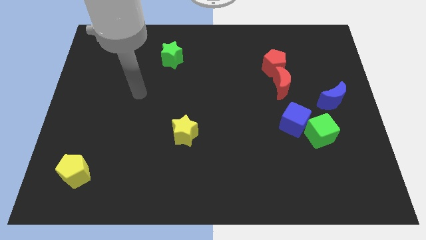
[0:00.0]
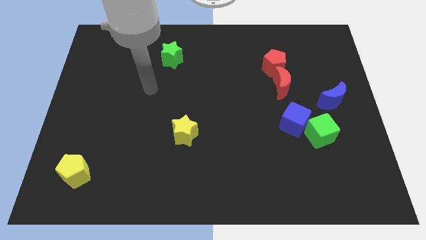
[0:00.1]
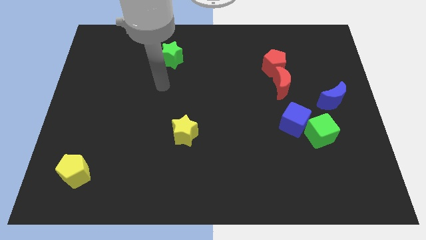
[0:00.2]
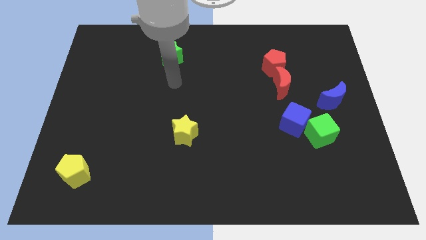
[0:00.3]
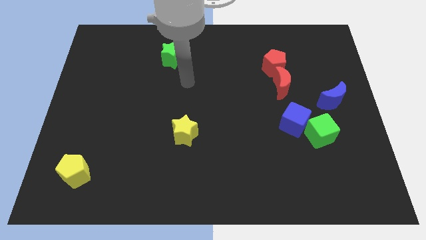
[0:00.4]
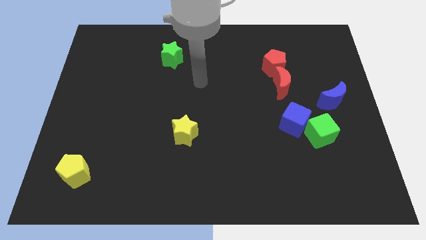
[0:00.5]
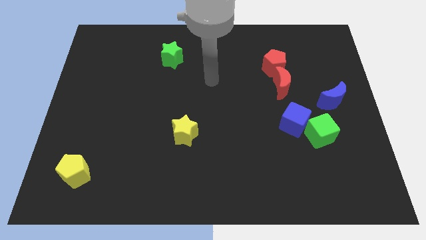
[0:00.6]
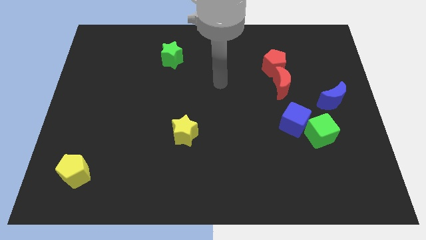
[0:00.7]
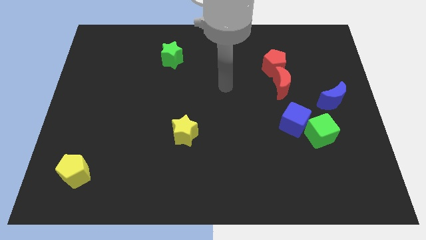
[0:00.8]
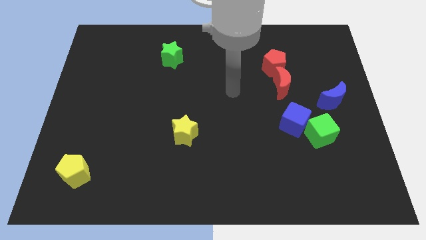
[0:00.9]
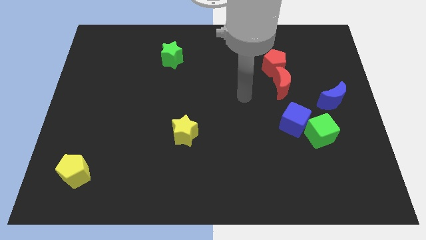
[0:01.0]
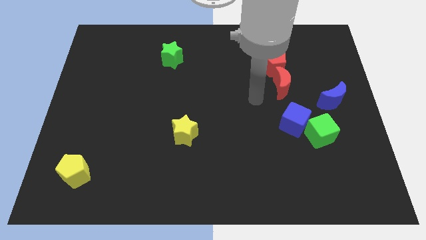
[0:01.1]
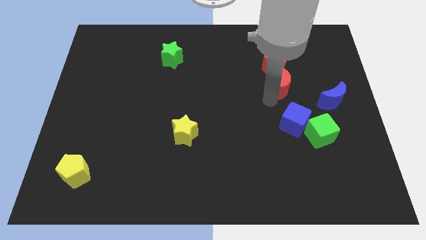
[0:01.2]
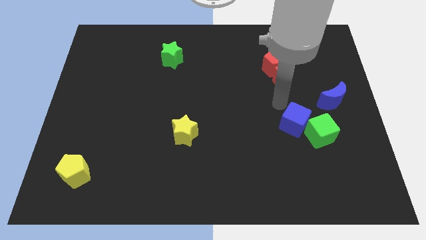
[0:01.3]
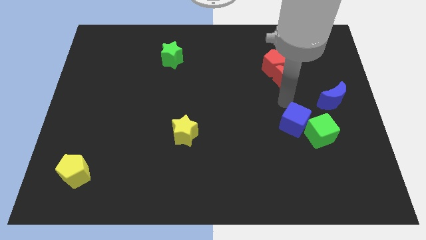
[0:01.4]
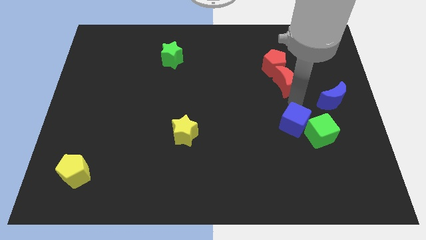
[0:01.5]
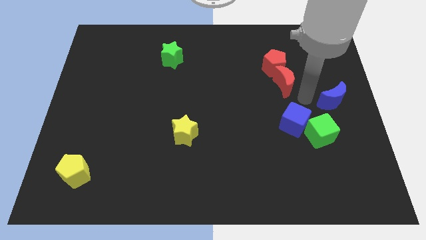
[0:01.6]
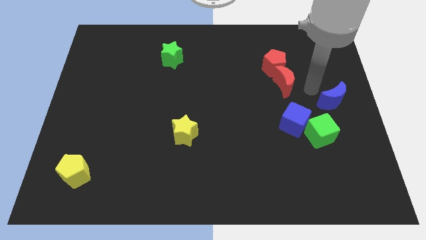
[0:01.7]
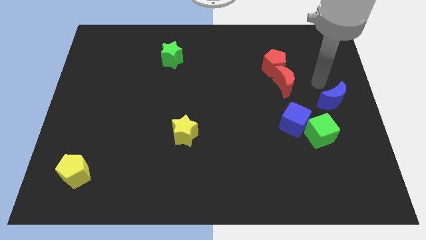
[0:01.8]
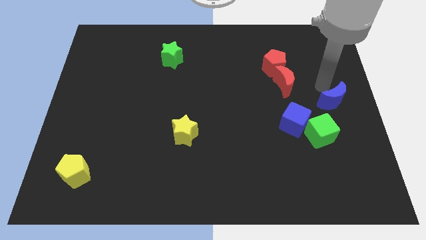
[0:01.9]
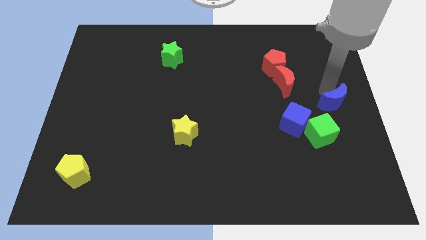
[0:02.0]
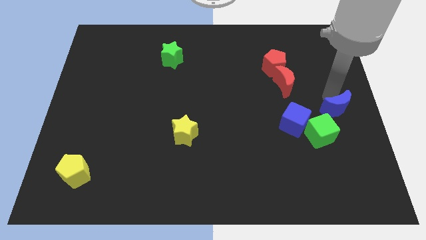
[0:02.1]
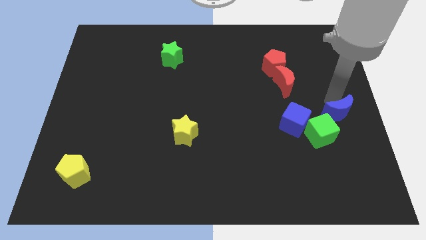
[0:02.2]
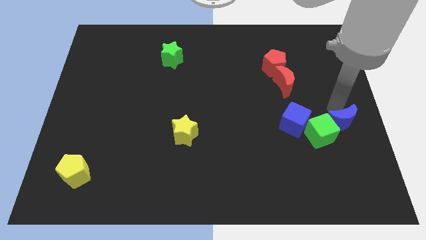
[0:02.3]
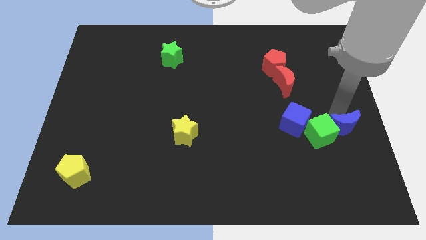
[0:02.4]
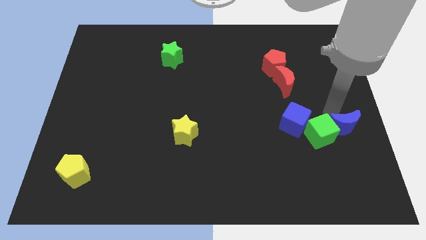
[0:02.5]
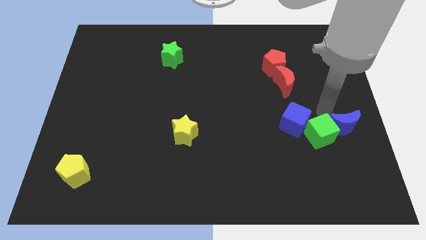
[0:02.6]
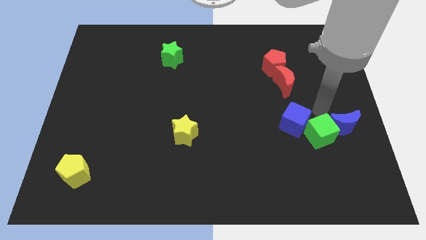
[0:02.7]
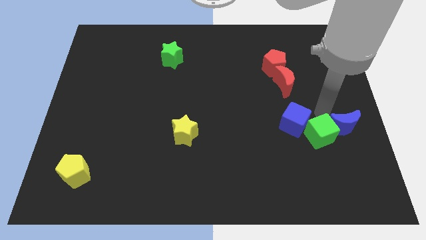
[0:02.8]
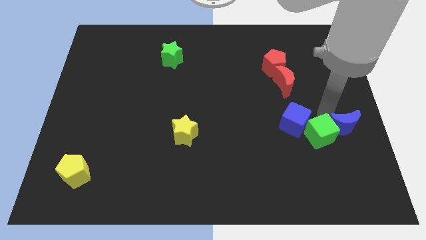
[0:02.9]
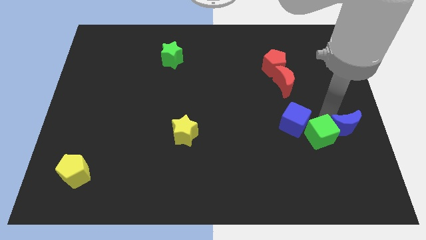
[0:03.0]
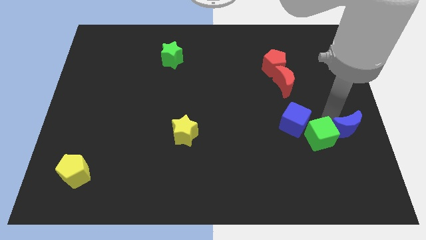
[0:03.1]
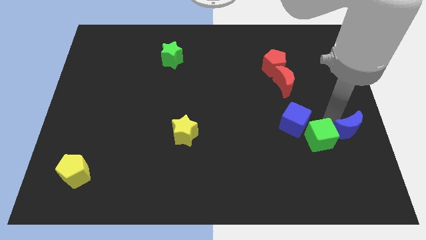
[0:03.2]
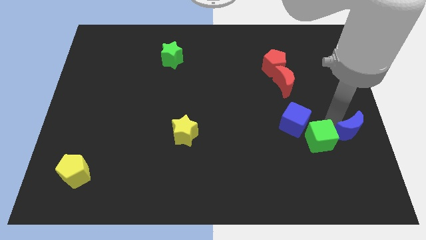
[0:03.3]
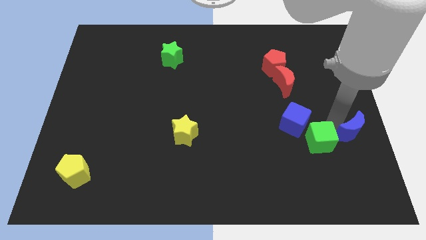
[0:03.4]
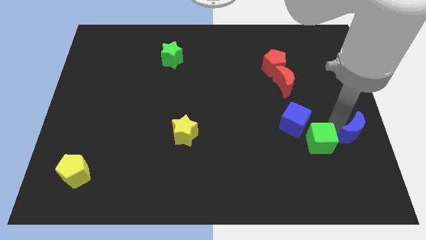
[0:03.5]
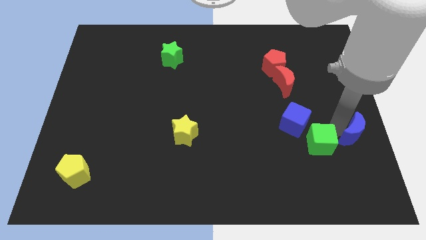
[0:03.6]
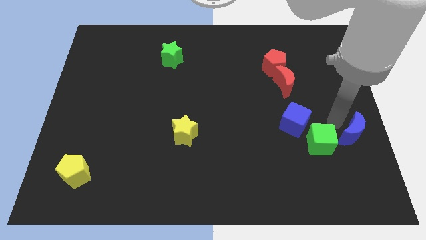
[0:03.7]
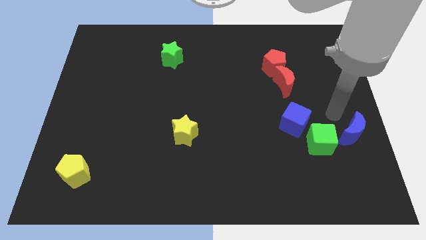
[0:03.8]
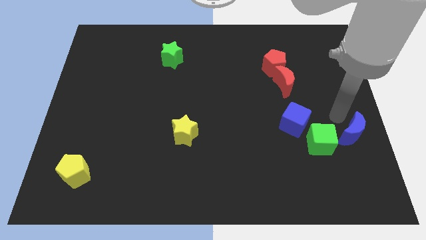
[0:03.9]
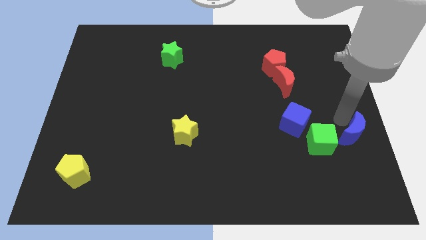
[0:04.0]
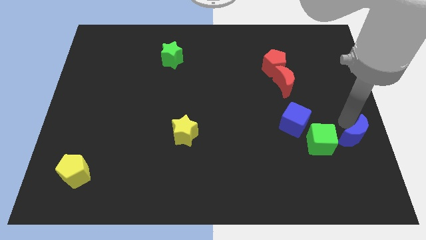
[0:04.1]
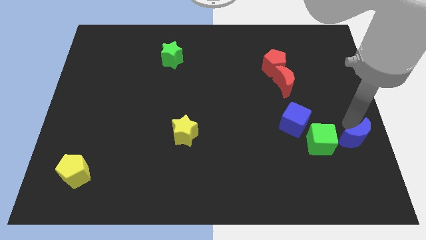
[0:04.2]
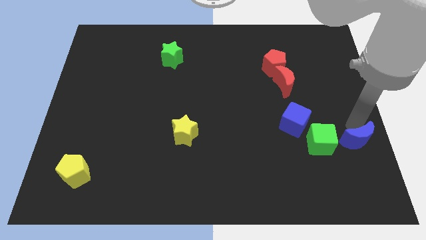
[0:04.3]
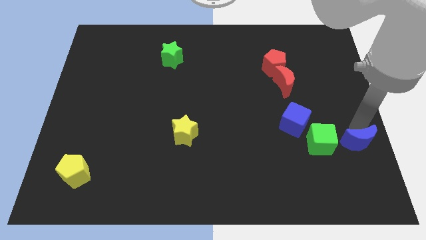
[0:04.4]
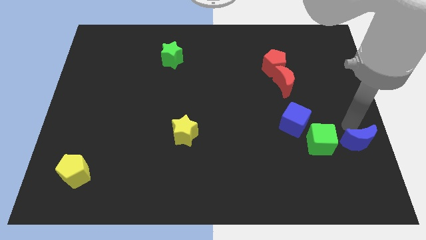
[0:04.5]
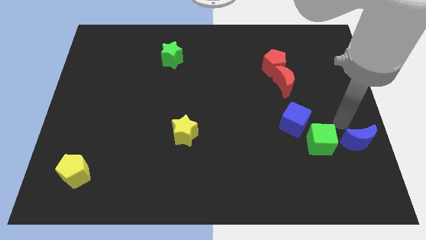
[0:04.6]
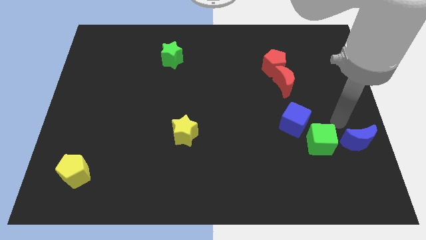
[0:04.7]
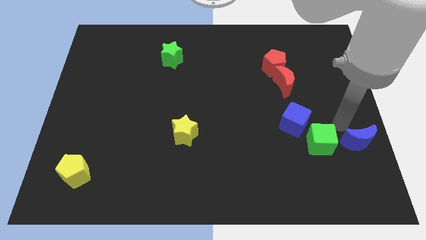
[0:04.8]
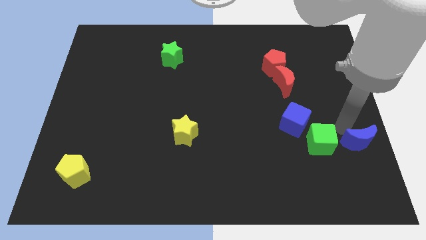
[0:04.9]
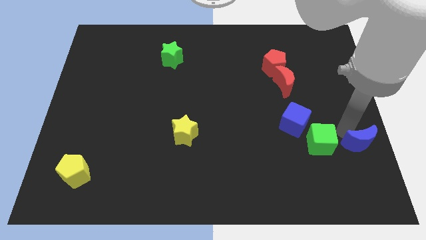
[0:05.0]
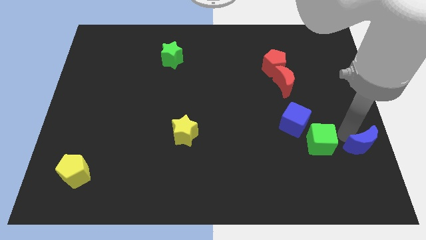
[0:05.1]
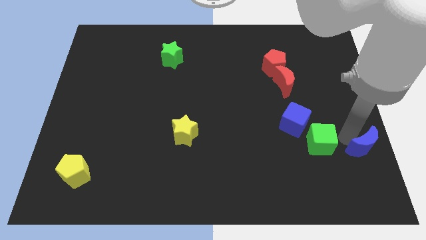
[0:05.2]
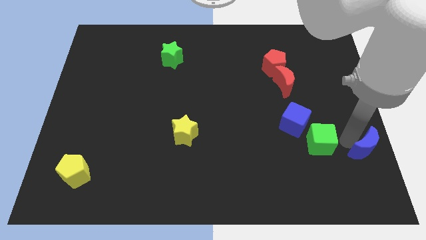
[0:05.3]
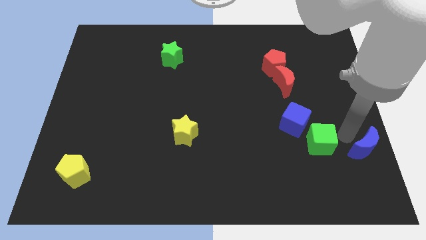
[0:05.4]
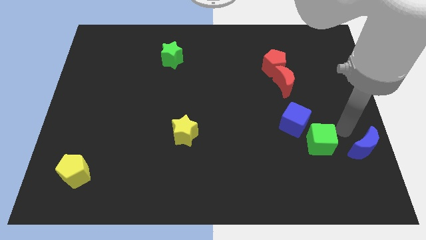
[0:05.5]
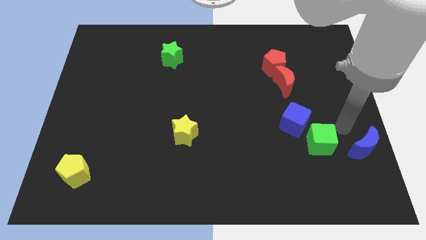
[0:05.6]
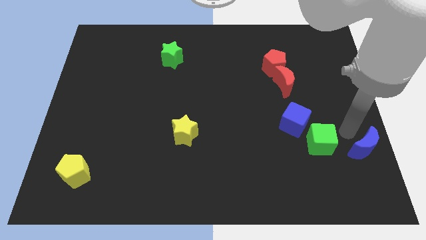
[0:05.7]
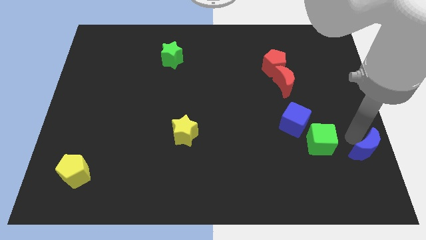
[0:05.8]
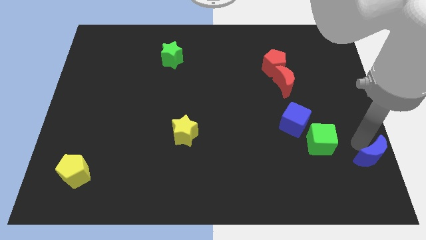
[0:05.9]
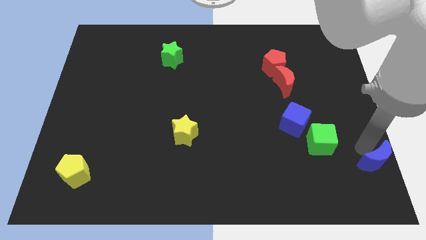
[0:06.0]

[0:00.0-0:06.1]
slide the blue moon to the bottom right of the board

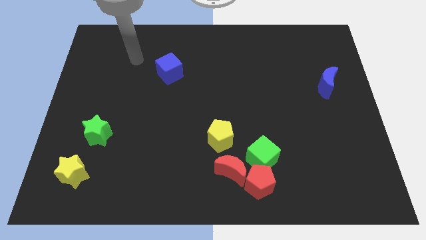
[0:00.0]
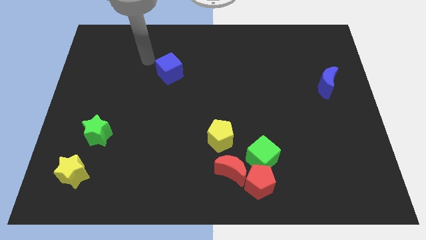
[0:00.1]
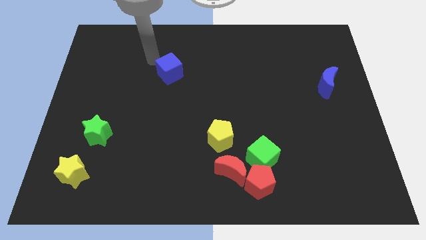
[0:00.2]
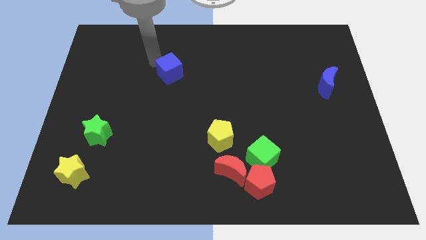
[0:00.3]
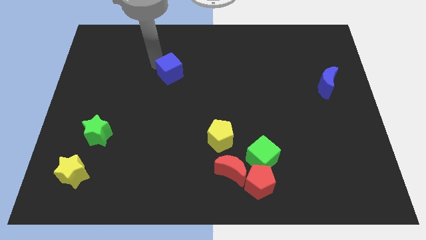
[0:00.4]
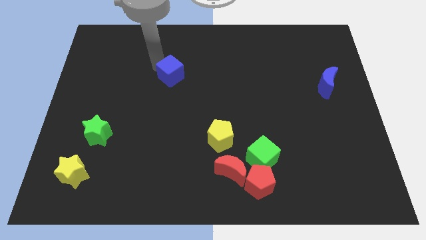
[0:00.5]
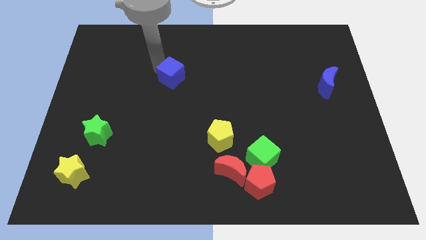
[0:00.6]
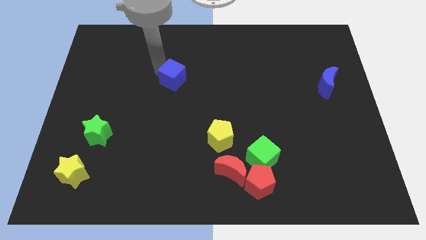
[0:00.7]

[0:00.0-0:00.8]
put the blue cube to the center
